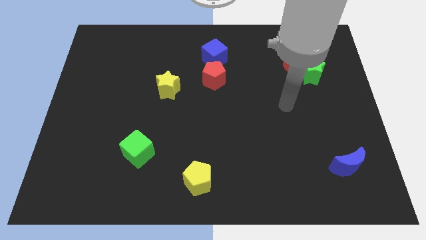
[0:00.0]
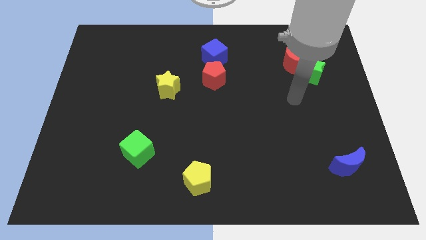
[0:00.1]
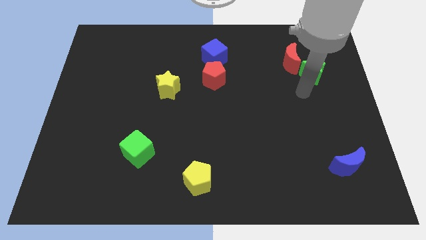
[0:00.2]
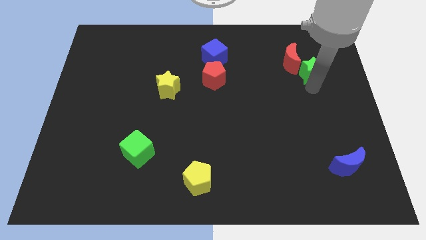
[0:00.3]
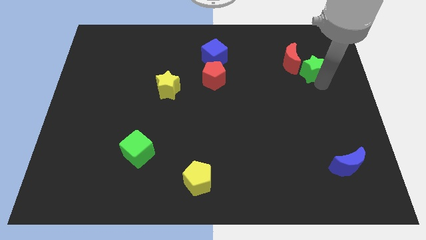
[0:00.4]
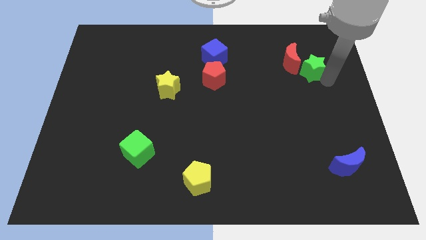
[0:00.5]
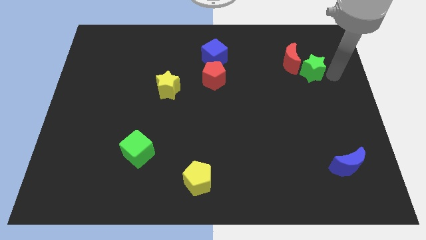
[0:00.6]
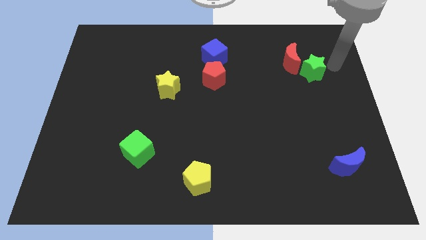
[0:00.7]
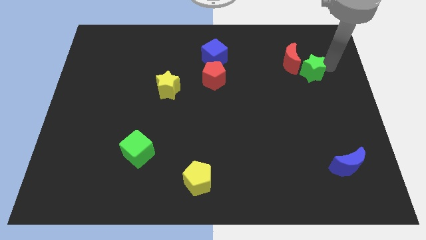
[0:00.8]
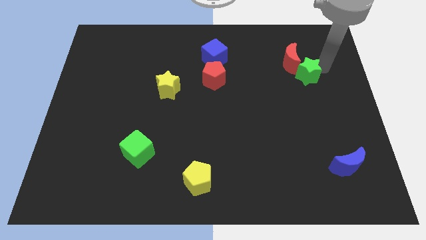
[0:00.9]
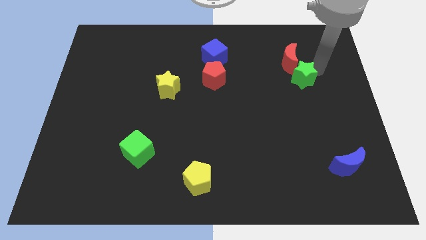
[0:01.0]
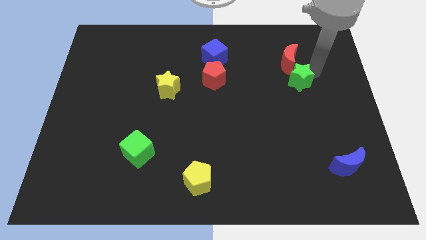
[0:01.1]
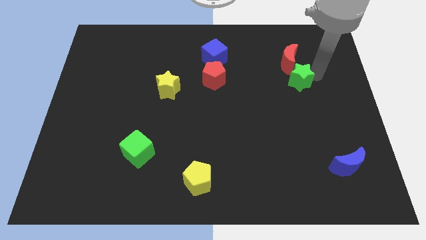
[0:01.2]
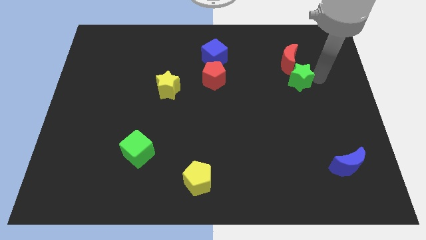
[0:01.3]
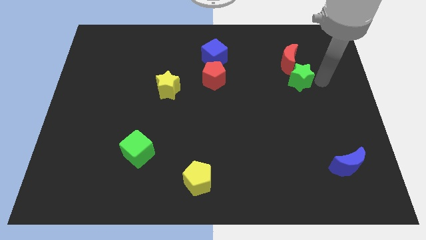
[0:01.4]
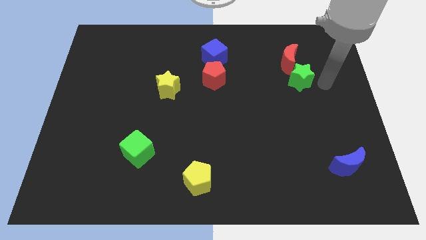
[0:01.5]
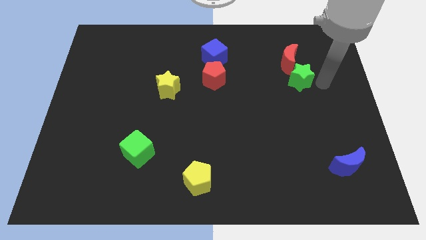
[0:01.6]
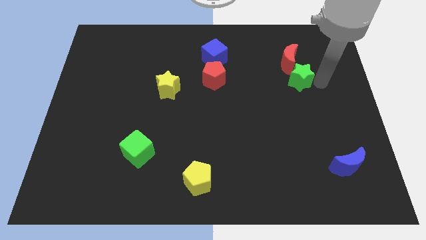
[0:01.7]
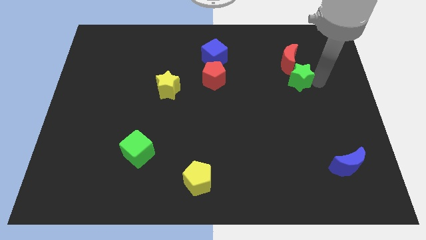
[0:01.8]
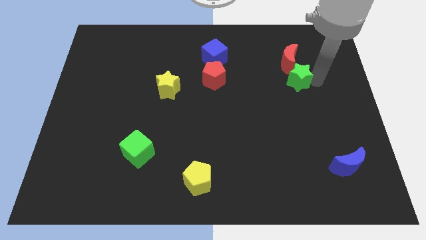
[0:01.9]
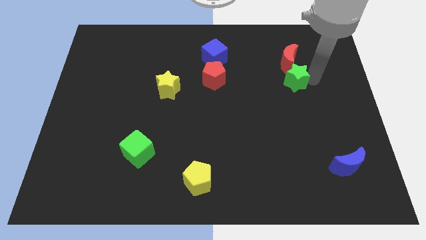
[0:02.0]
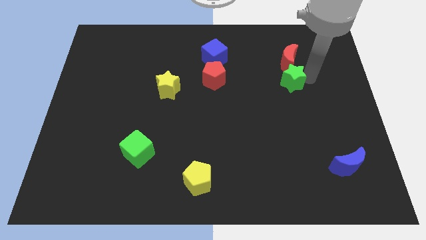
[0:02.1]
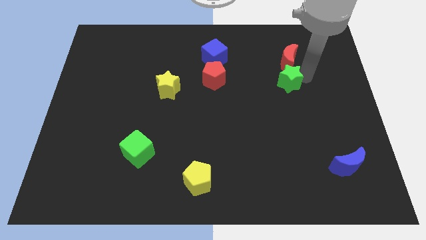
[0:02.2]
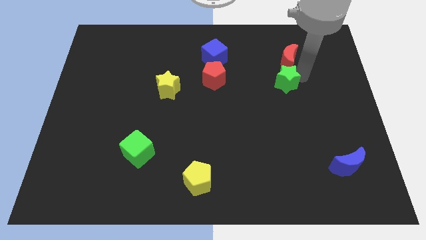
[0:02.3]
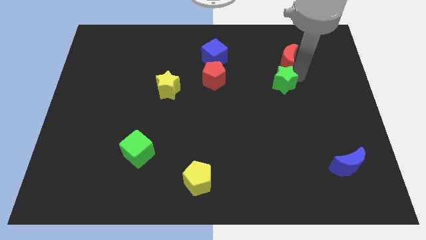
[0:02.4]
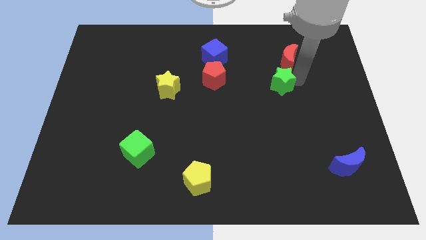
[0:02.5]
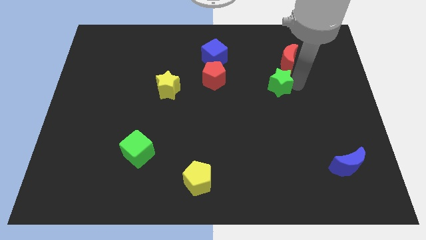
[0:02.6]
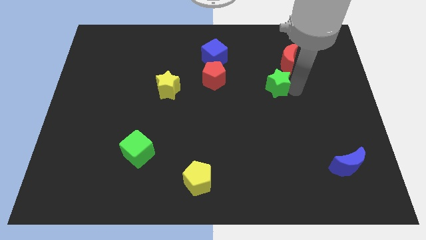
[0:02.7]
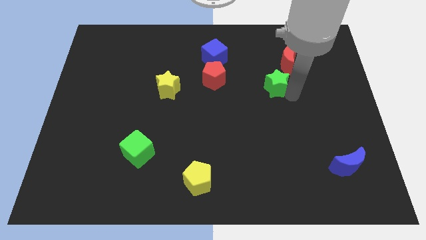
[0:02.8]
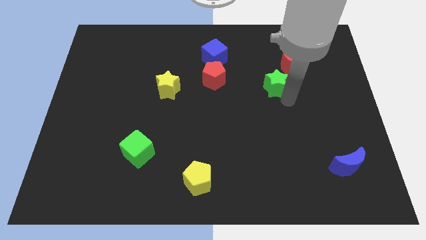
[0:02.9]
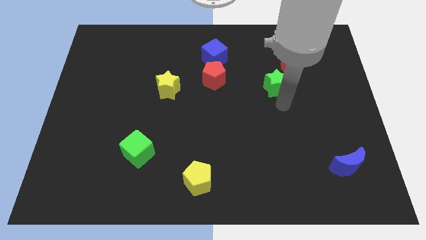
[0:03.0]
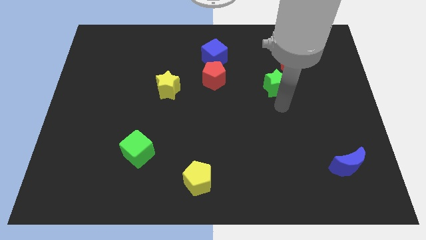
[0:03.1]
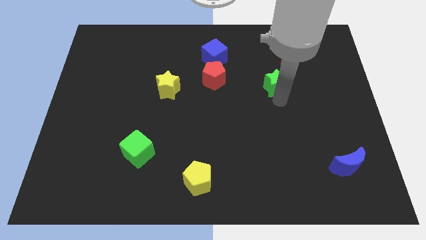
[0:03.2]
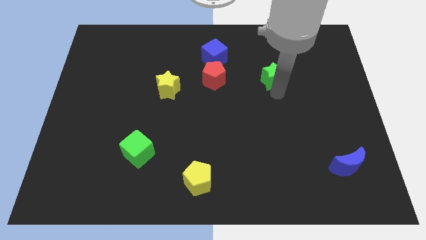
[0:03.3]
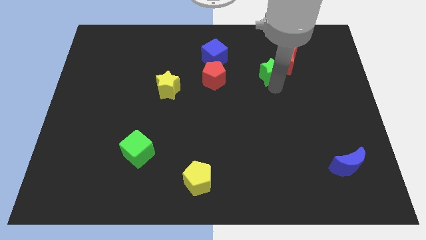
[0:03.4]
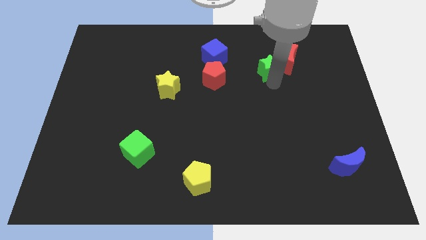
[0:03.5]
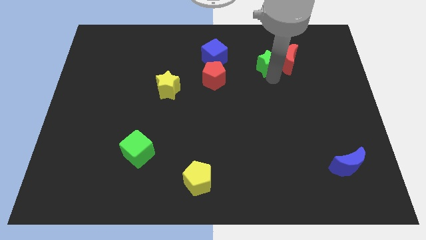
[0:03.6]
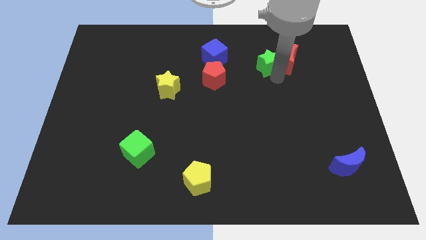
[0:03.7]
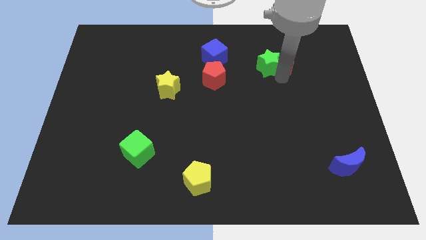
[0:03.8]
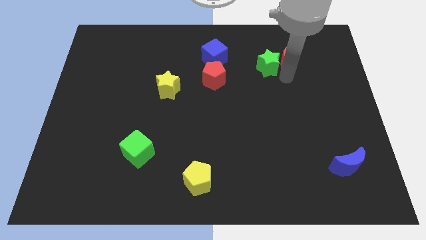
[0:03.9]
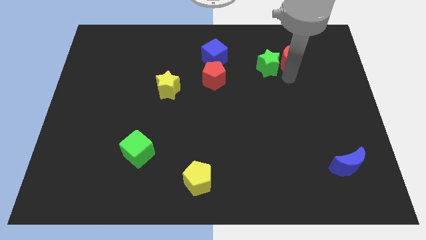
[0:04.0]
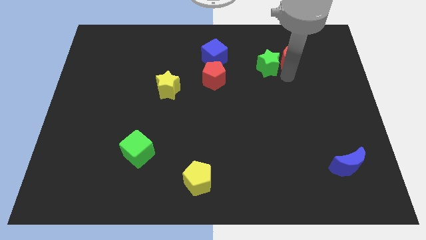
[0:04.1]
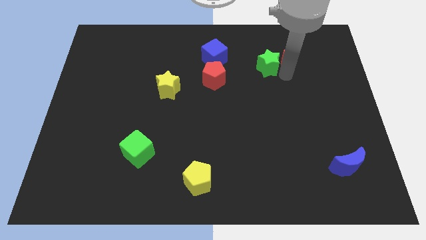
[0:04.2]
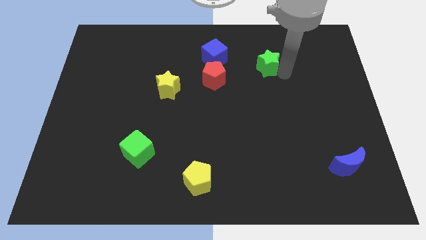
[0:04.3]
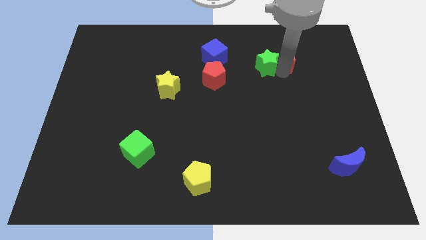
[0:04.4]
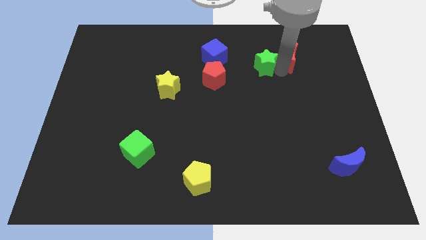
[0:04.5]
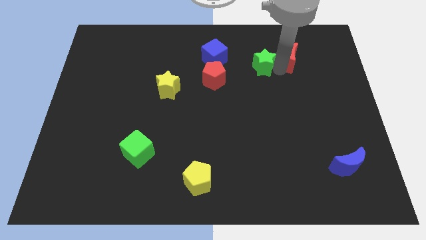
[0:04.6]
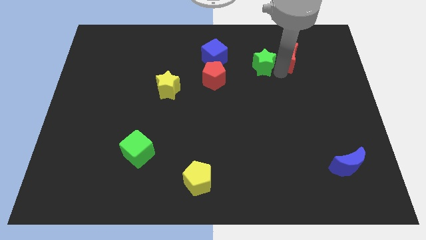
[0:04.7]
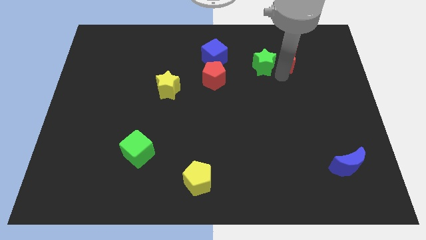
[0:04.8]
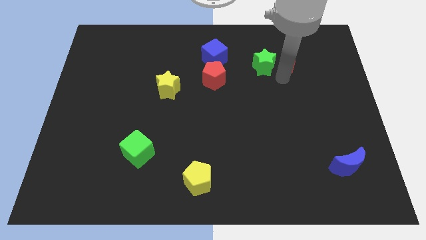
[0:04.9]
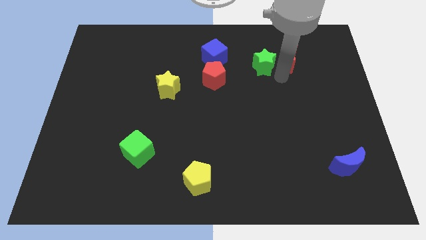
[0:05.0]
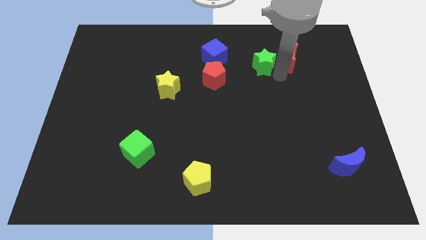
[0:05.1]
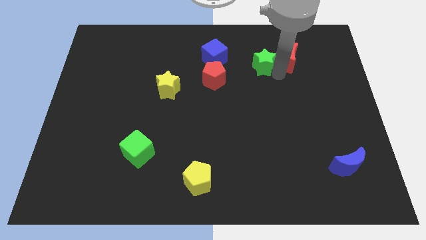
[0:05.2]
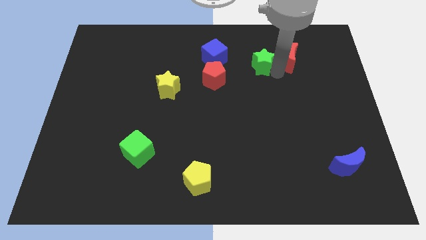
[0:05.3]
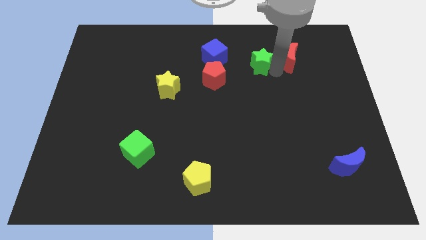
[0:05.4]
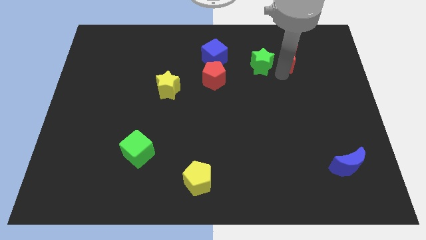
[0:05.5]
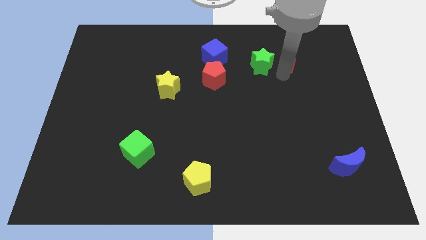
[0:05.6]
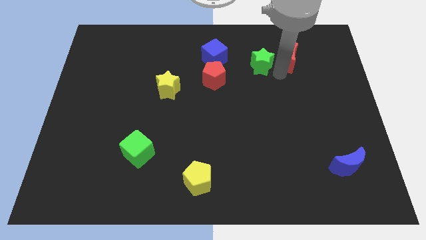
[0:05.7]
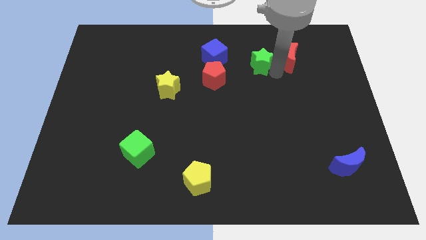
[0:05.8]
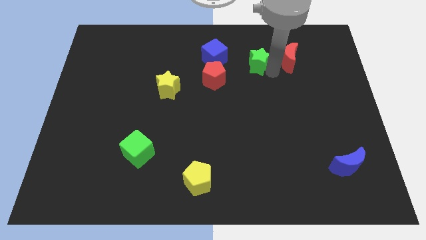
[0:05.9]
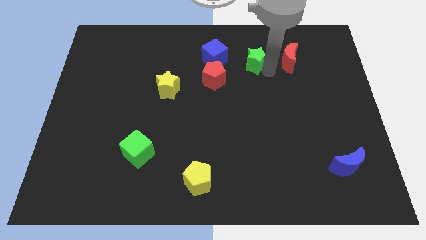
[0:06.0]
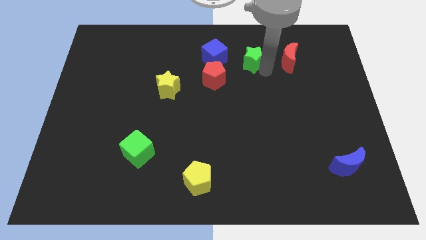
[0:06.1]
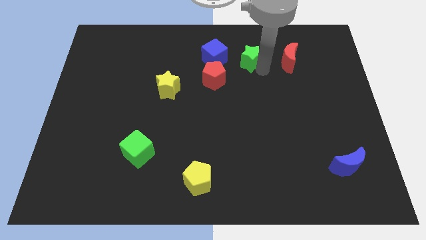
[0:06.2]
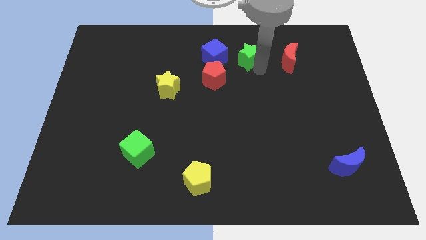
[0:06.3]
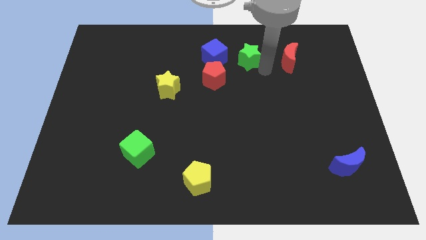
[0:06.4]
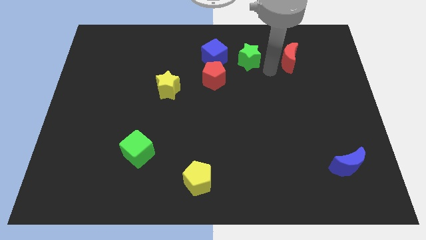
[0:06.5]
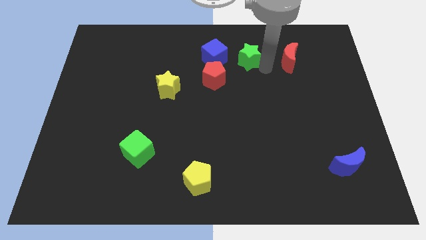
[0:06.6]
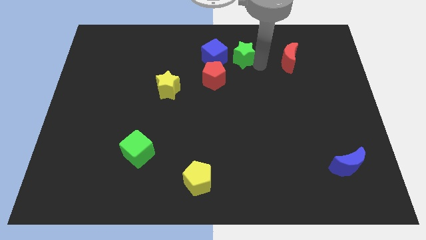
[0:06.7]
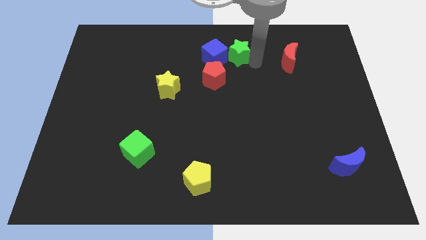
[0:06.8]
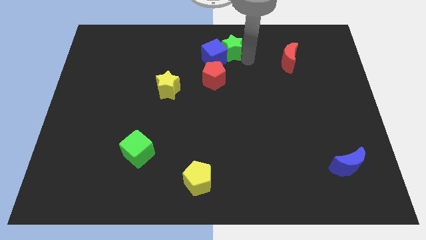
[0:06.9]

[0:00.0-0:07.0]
put the green star to the top
